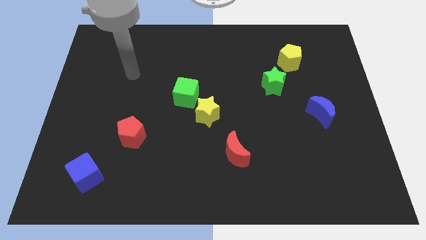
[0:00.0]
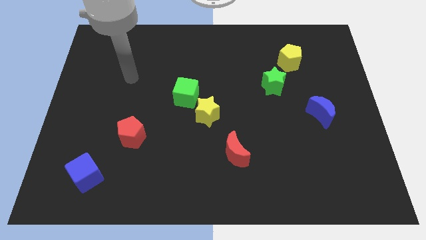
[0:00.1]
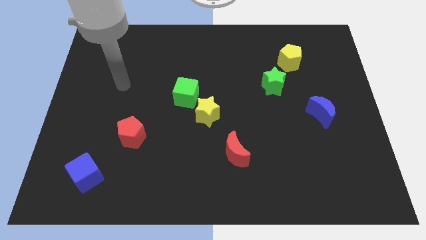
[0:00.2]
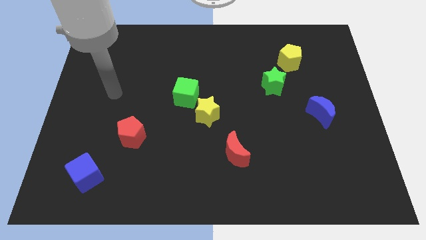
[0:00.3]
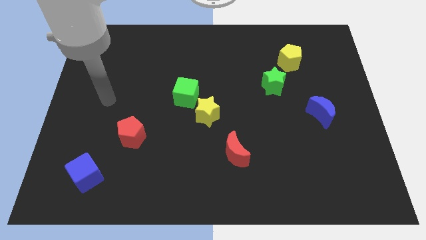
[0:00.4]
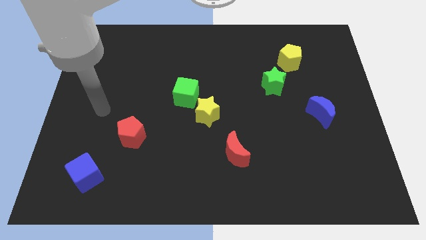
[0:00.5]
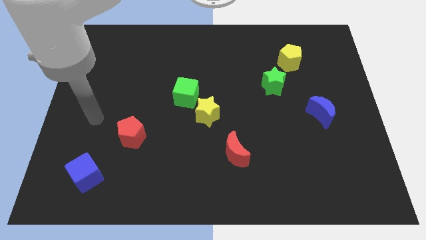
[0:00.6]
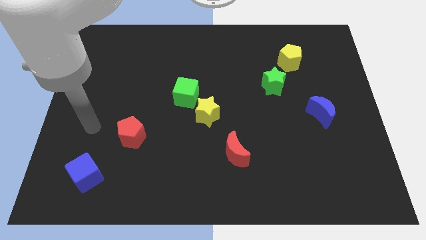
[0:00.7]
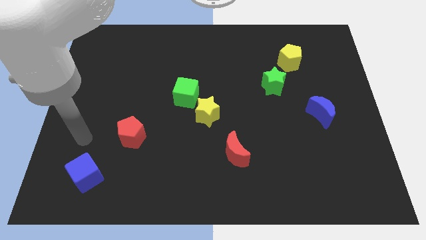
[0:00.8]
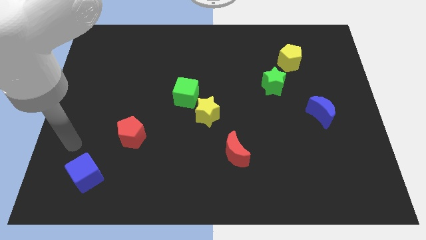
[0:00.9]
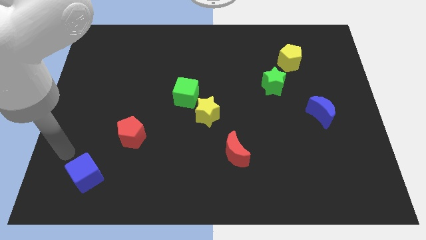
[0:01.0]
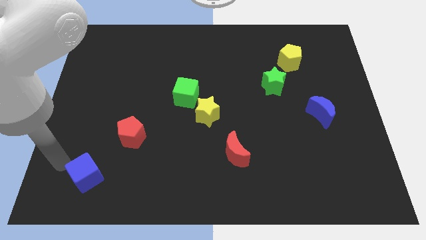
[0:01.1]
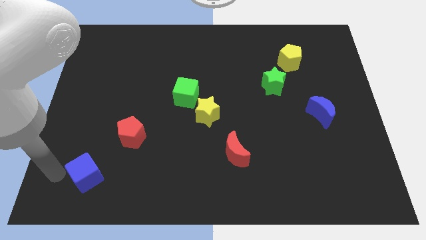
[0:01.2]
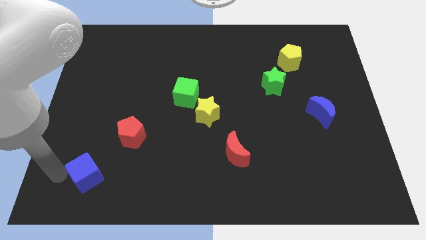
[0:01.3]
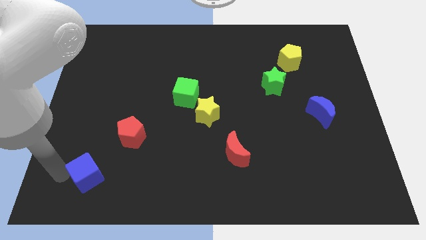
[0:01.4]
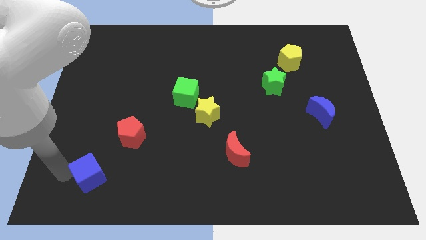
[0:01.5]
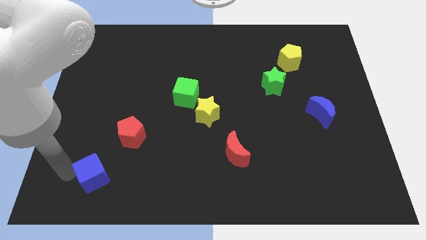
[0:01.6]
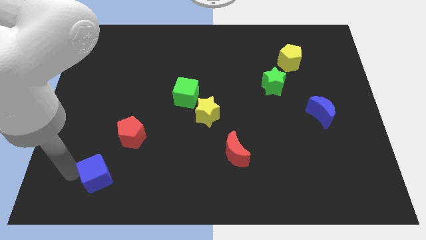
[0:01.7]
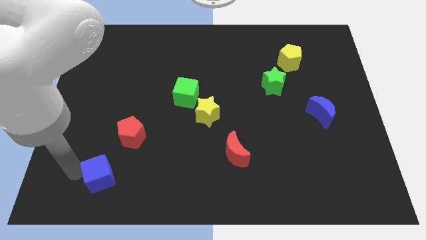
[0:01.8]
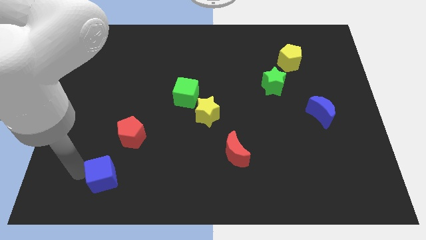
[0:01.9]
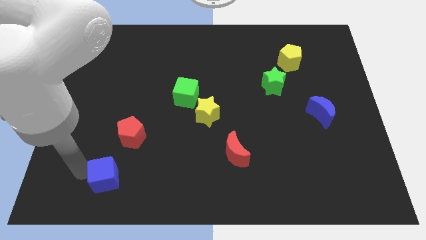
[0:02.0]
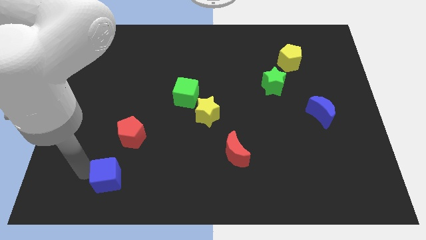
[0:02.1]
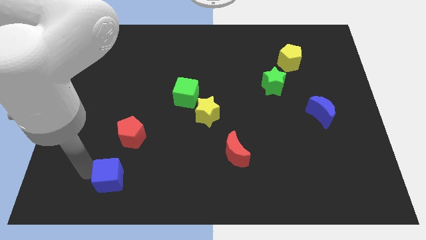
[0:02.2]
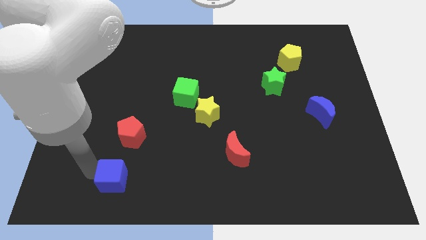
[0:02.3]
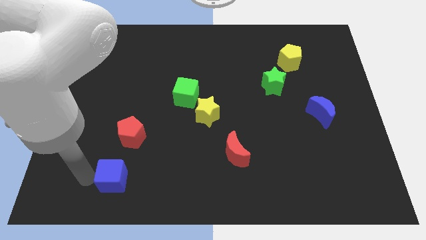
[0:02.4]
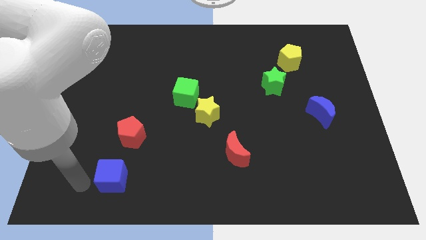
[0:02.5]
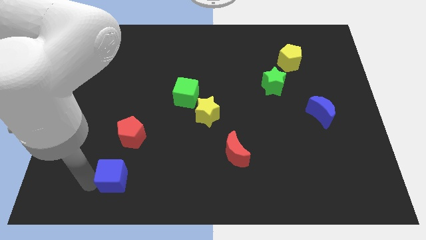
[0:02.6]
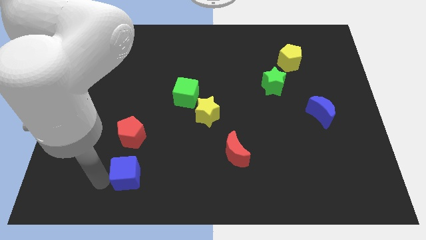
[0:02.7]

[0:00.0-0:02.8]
move the blue cube right a little bit

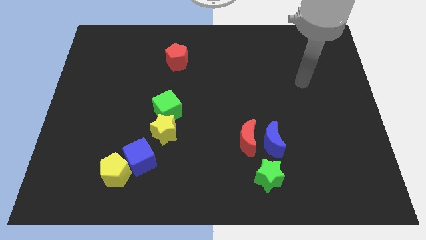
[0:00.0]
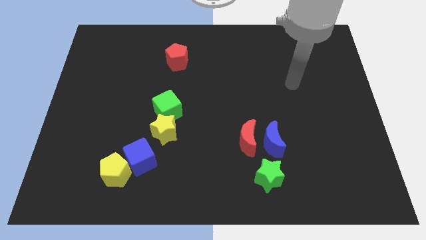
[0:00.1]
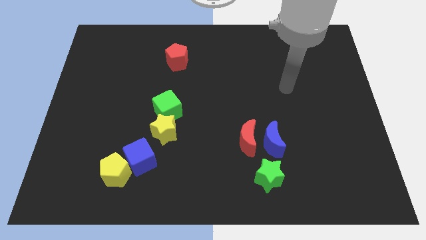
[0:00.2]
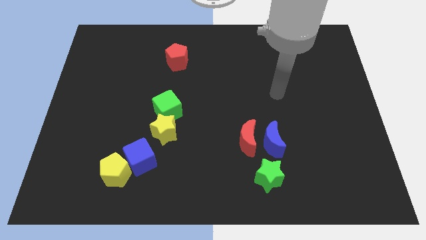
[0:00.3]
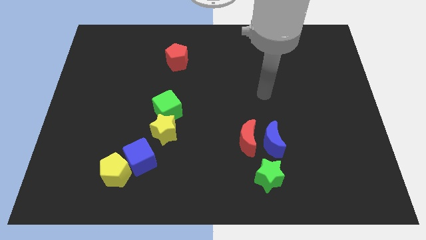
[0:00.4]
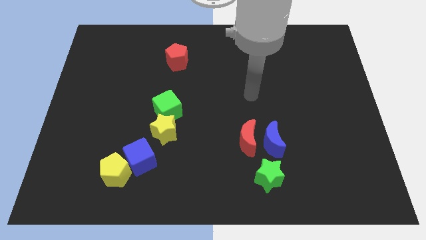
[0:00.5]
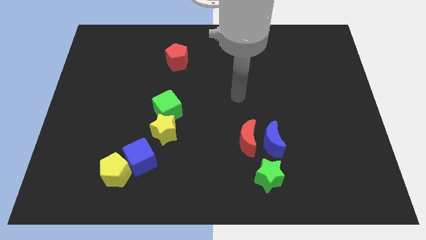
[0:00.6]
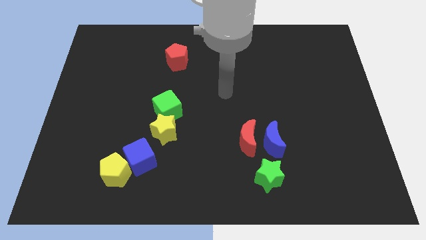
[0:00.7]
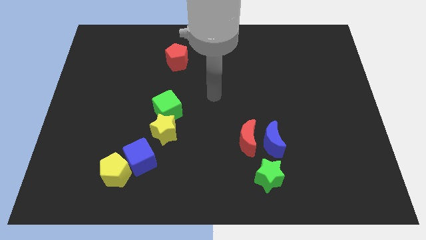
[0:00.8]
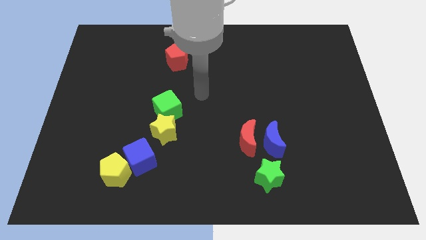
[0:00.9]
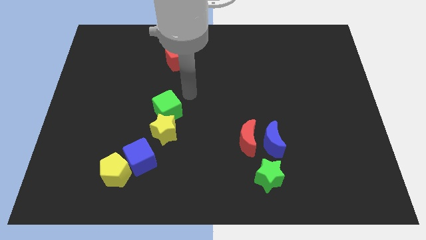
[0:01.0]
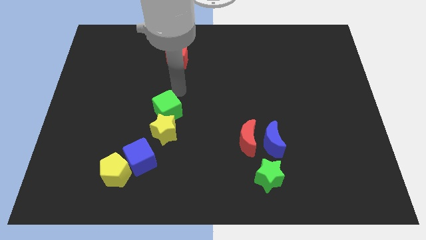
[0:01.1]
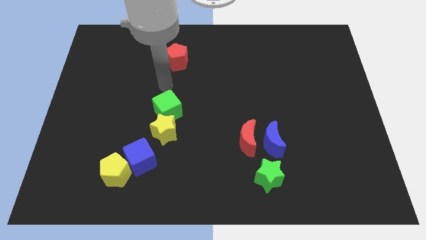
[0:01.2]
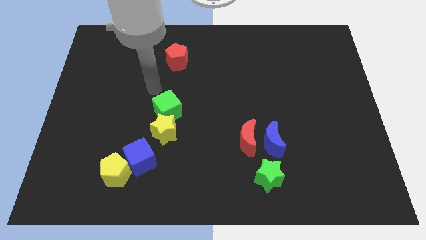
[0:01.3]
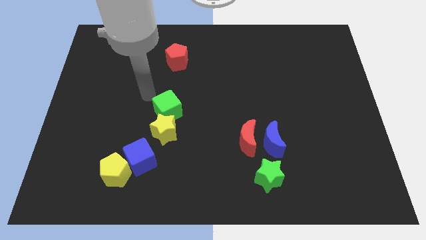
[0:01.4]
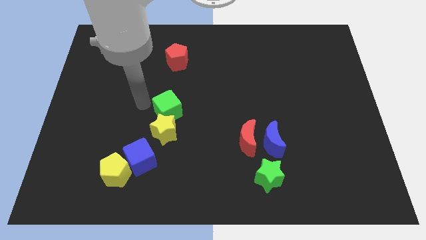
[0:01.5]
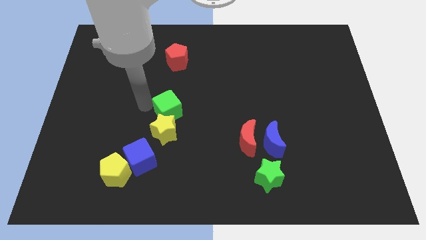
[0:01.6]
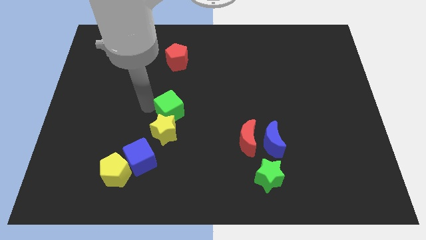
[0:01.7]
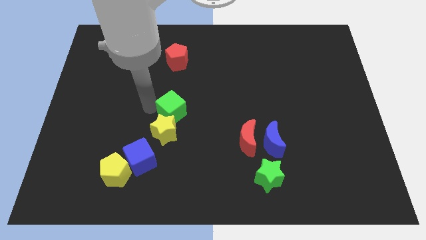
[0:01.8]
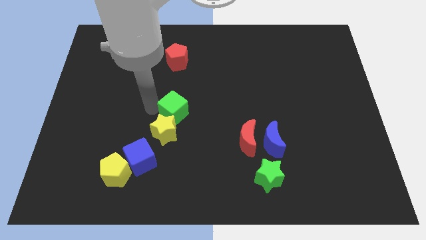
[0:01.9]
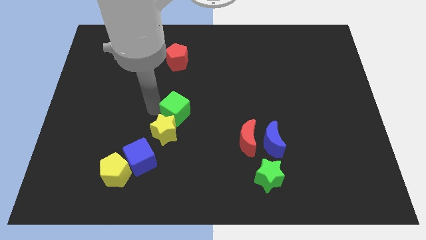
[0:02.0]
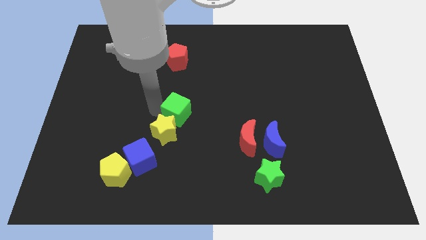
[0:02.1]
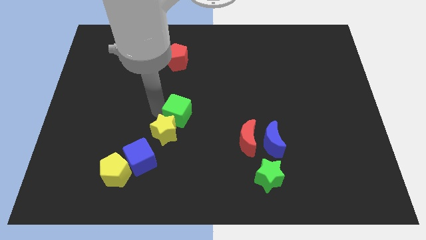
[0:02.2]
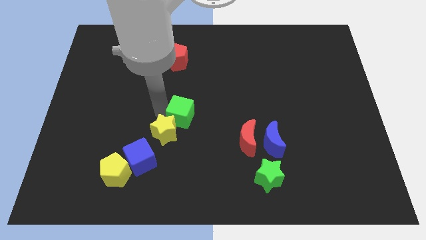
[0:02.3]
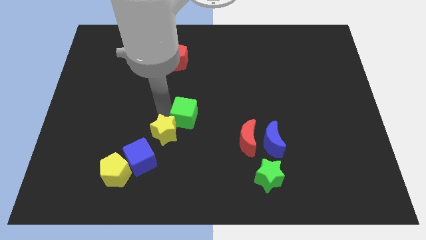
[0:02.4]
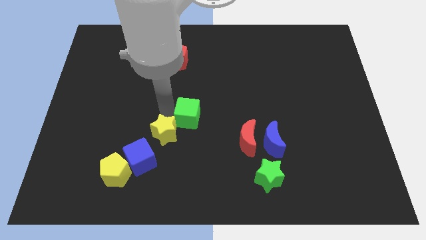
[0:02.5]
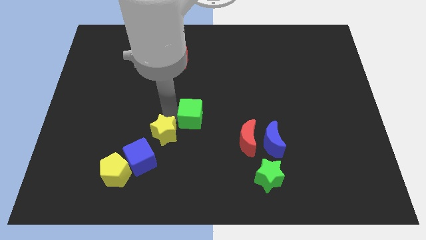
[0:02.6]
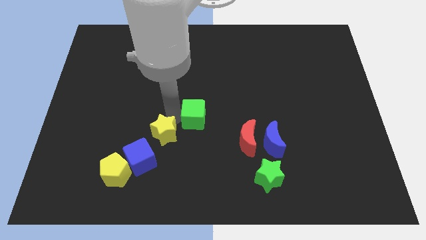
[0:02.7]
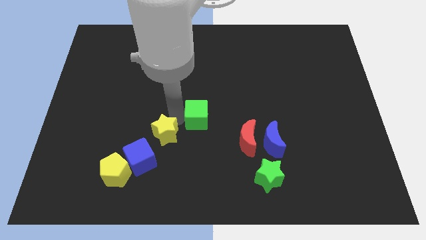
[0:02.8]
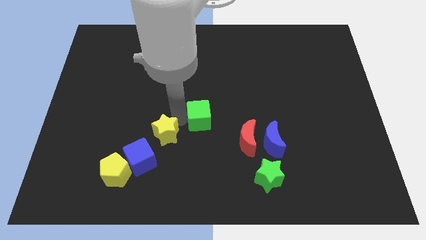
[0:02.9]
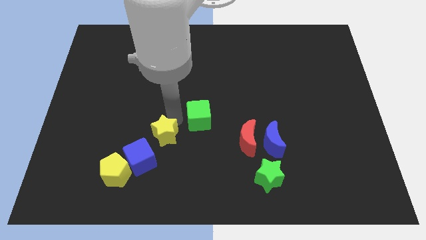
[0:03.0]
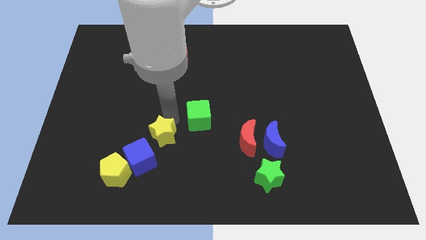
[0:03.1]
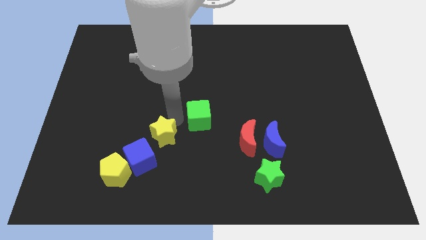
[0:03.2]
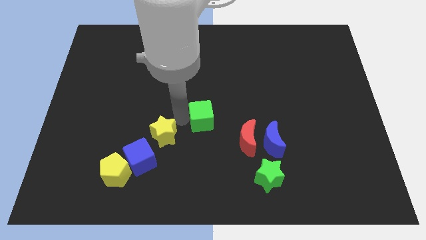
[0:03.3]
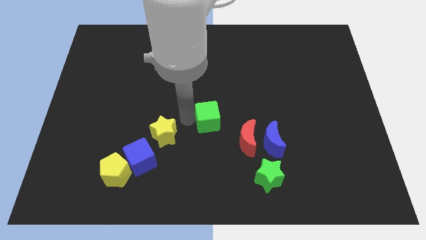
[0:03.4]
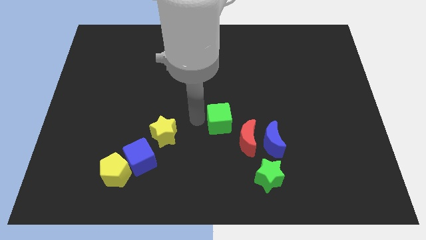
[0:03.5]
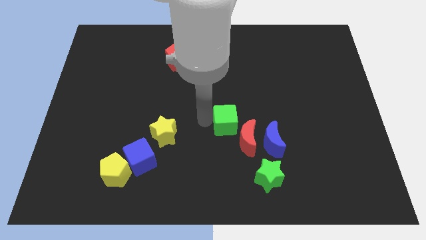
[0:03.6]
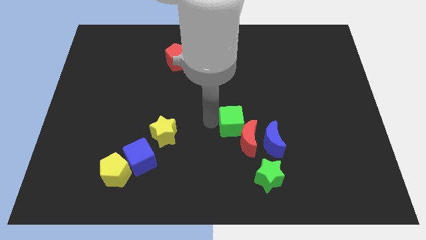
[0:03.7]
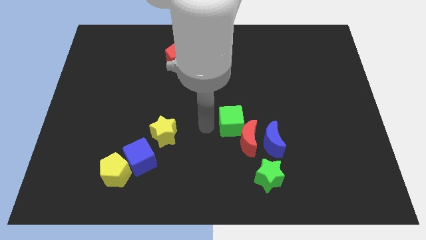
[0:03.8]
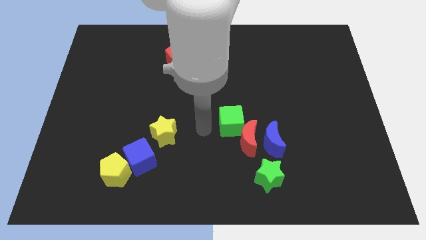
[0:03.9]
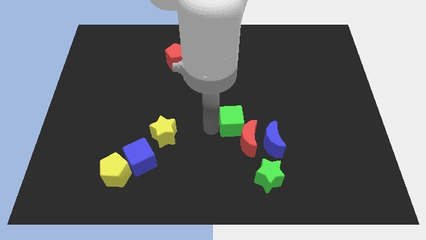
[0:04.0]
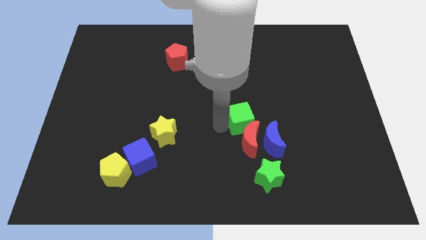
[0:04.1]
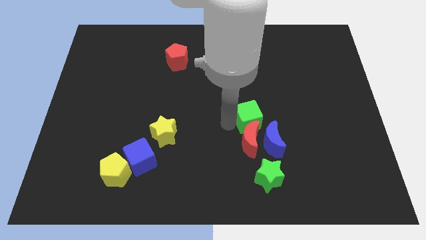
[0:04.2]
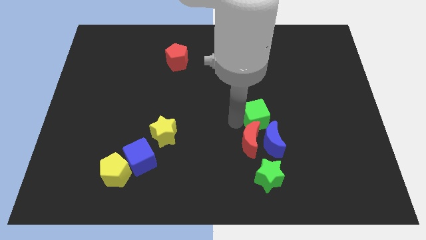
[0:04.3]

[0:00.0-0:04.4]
move the green cube to the right

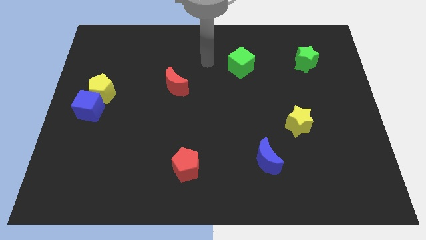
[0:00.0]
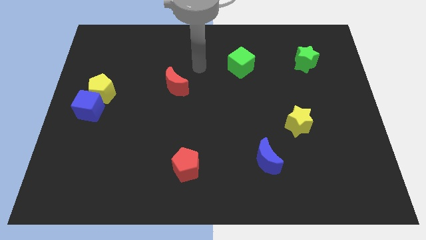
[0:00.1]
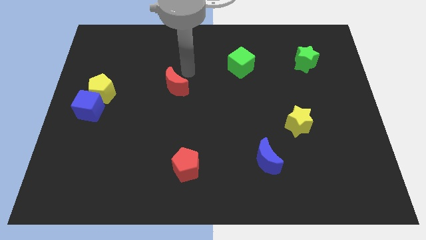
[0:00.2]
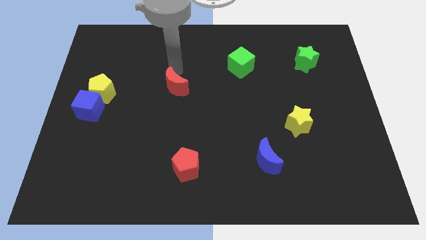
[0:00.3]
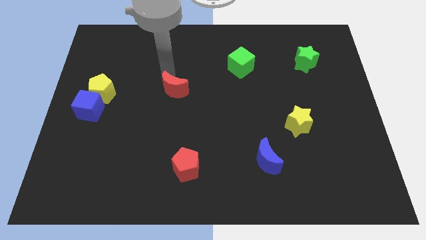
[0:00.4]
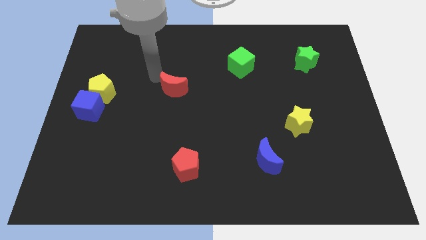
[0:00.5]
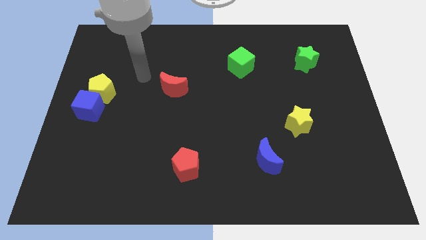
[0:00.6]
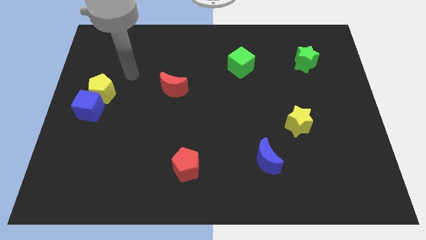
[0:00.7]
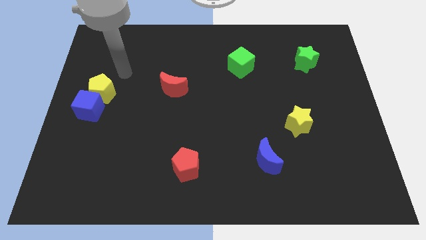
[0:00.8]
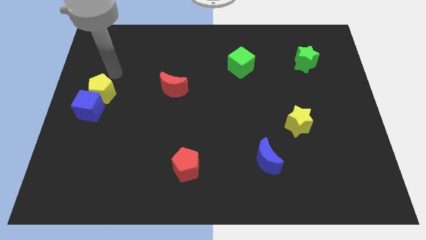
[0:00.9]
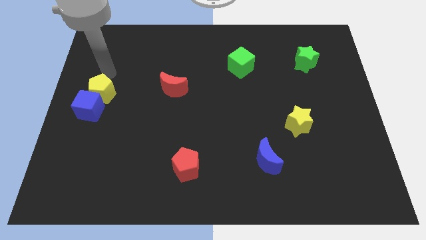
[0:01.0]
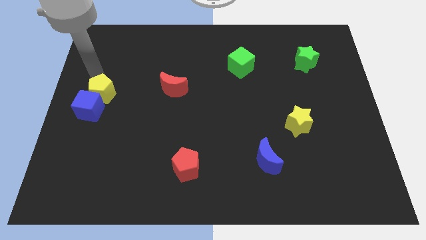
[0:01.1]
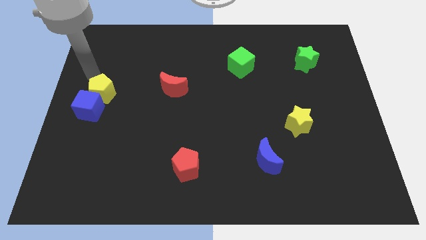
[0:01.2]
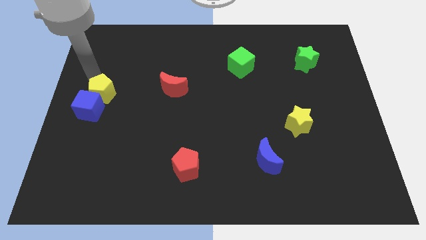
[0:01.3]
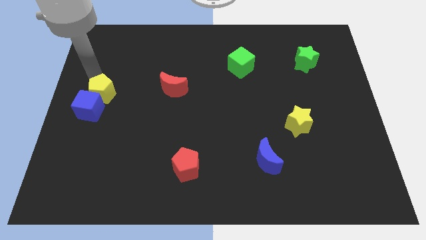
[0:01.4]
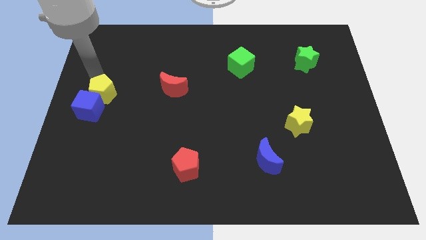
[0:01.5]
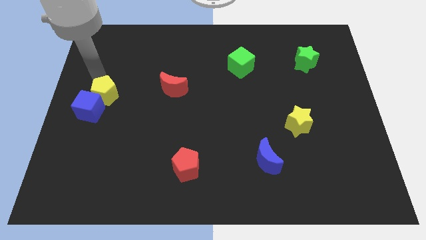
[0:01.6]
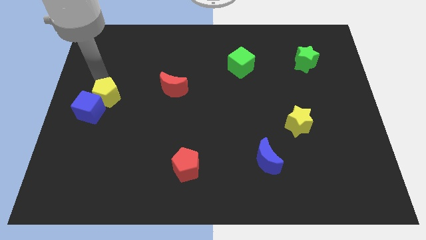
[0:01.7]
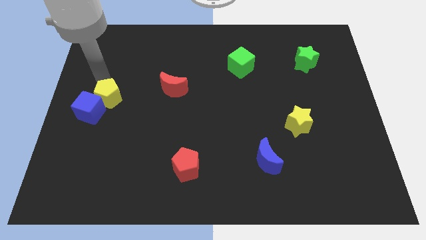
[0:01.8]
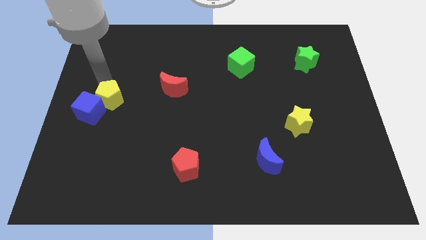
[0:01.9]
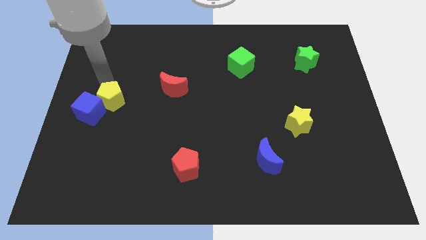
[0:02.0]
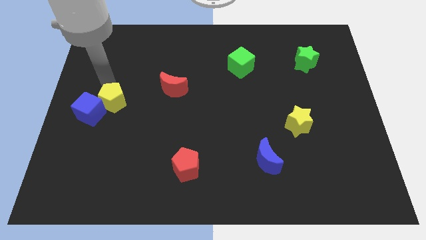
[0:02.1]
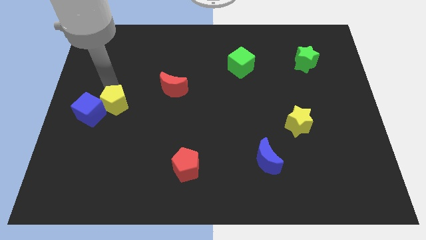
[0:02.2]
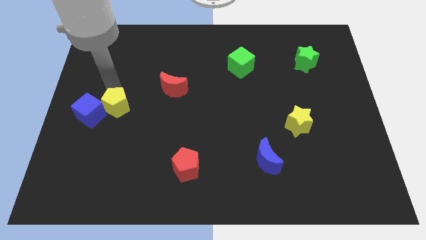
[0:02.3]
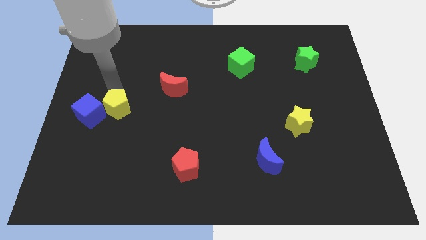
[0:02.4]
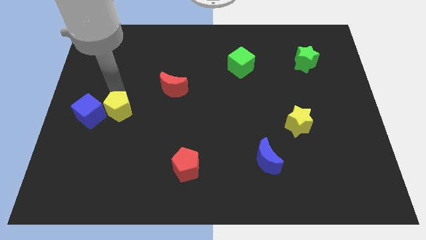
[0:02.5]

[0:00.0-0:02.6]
slide the yellow pentagon slightly downwards and right
